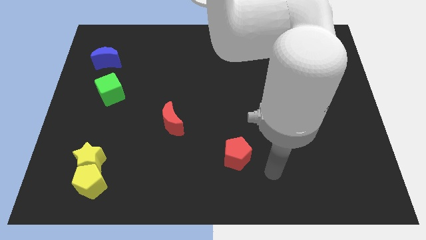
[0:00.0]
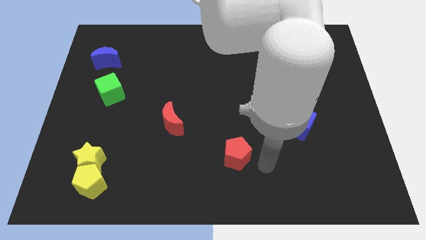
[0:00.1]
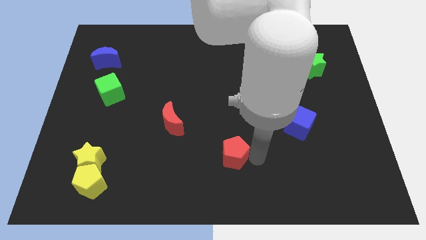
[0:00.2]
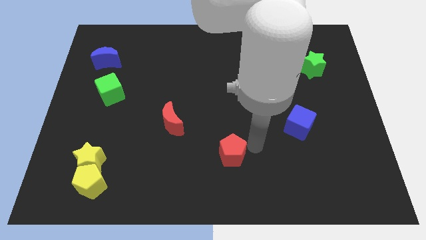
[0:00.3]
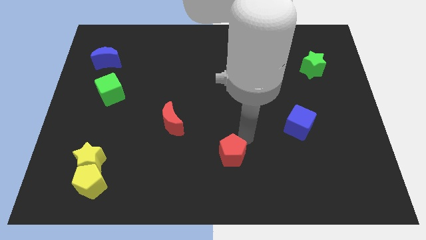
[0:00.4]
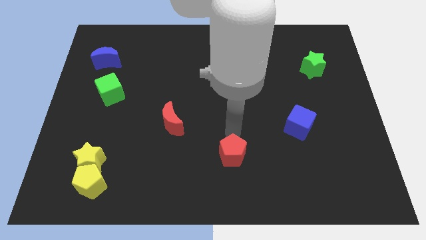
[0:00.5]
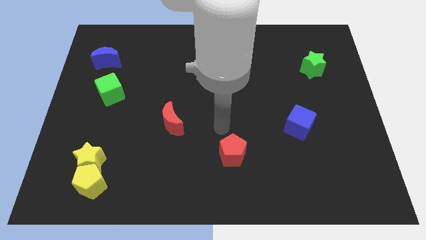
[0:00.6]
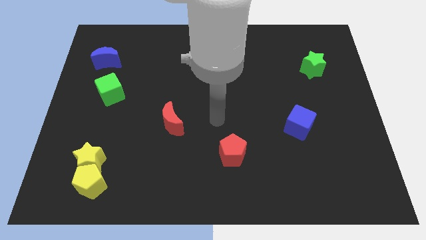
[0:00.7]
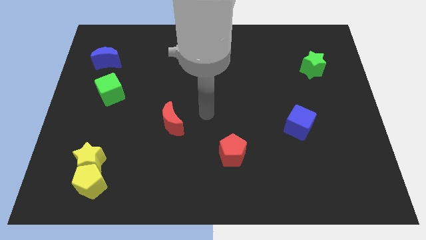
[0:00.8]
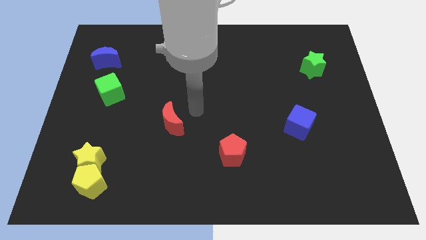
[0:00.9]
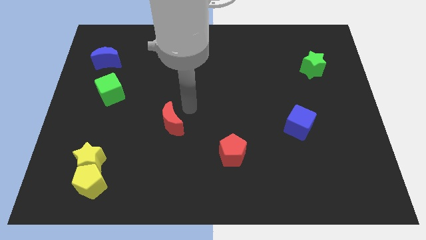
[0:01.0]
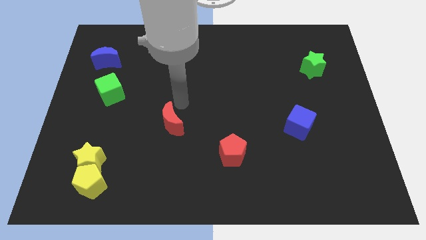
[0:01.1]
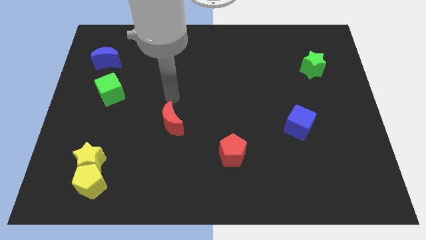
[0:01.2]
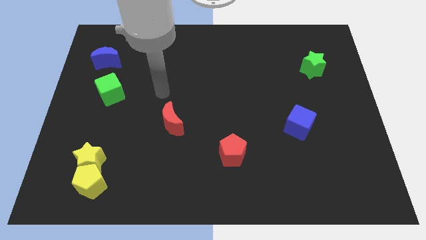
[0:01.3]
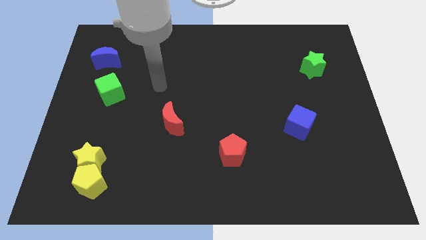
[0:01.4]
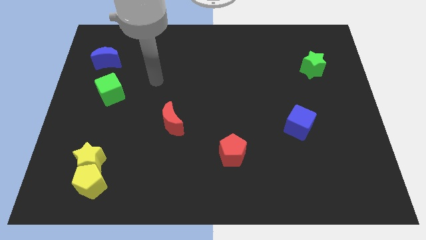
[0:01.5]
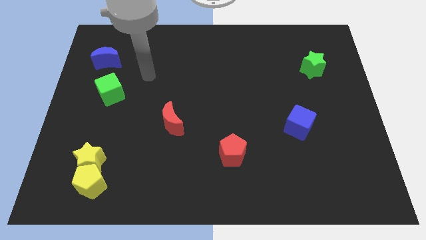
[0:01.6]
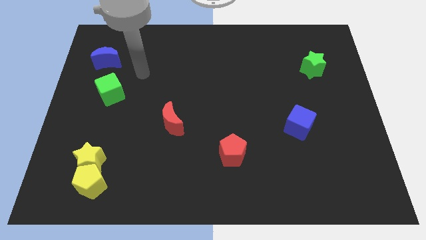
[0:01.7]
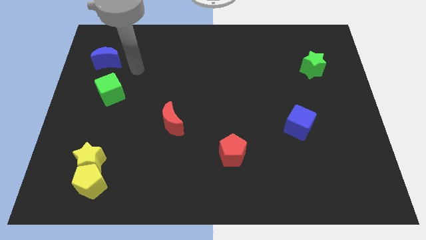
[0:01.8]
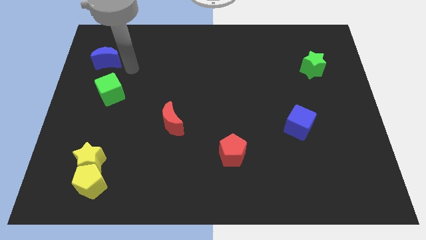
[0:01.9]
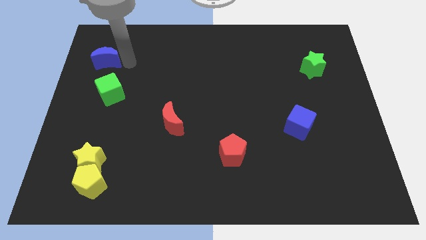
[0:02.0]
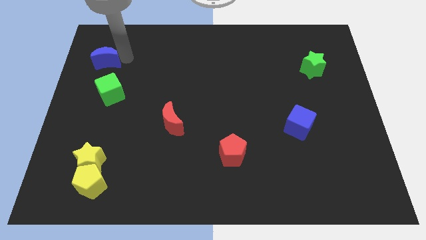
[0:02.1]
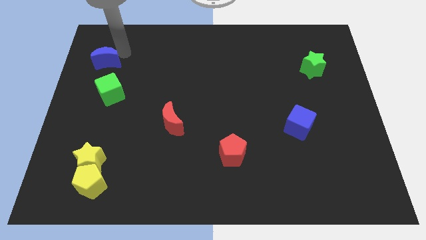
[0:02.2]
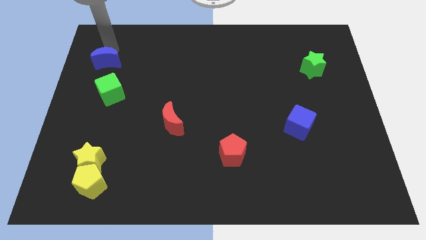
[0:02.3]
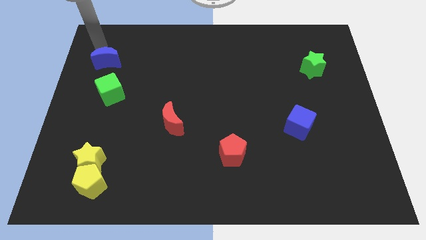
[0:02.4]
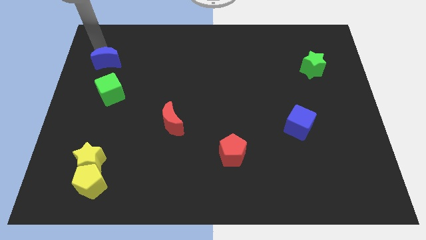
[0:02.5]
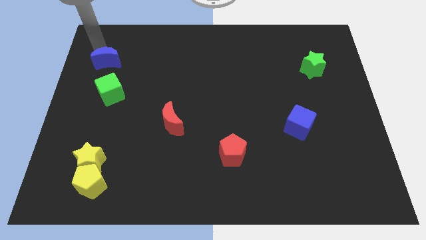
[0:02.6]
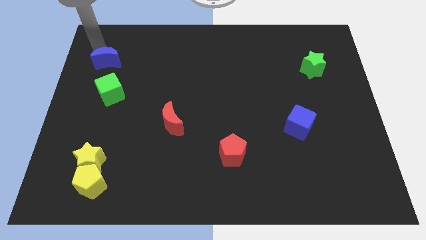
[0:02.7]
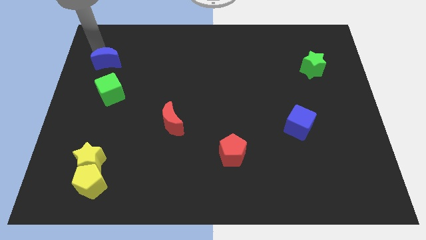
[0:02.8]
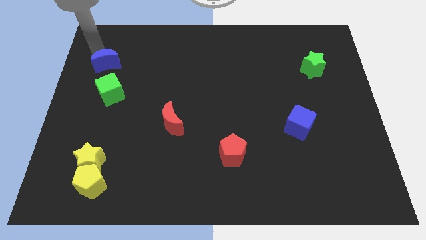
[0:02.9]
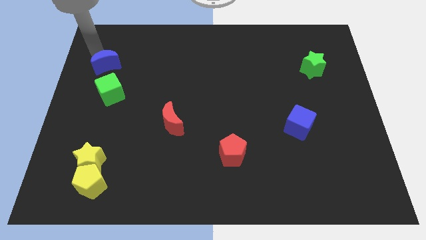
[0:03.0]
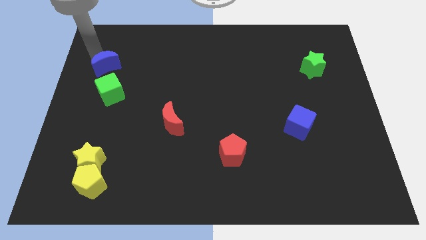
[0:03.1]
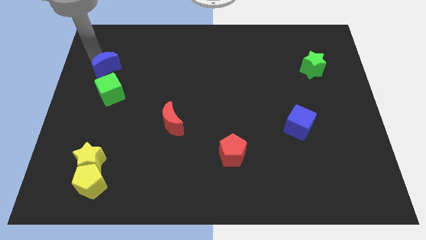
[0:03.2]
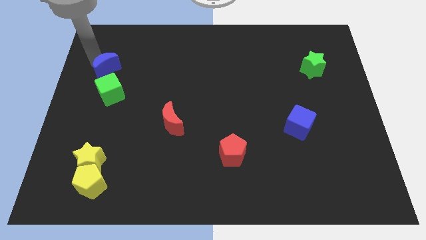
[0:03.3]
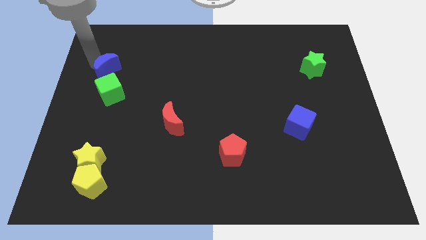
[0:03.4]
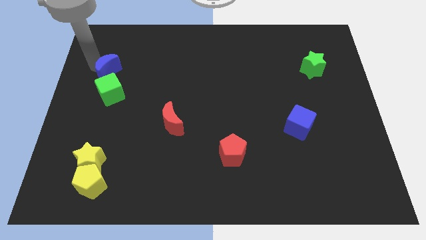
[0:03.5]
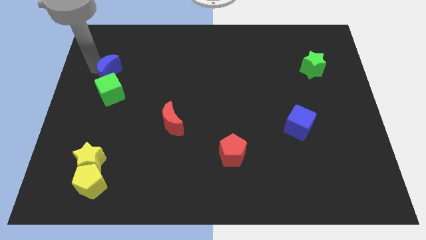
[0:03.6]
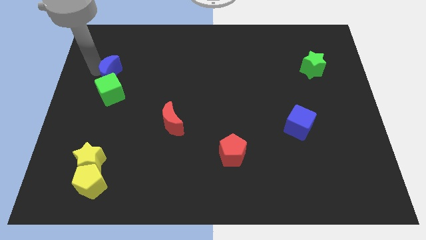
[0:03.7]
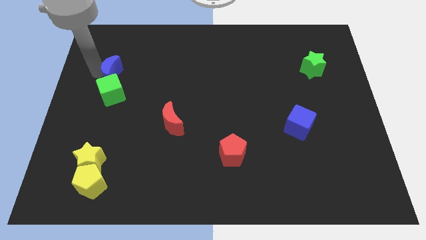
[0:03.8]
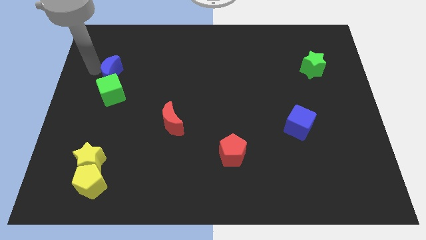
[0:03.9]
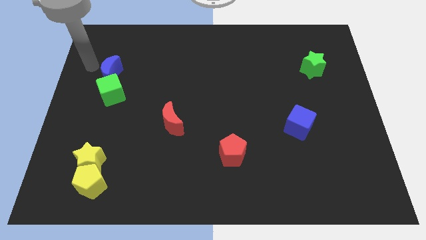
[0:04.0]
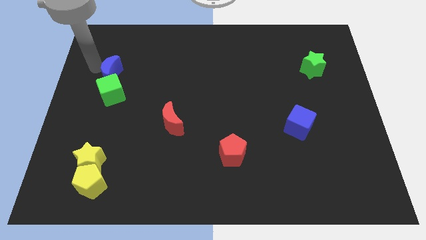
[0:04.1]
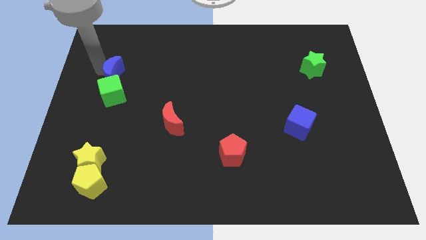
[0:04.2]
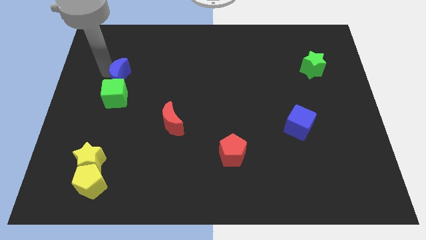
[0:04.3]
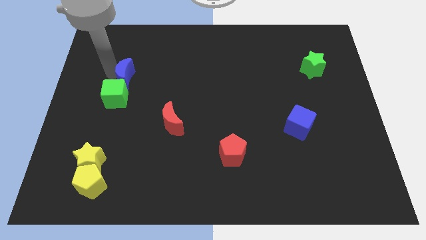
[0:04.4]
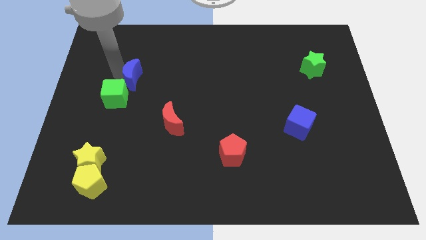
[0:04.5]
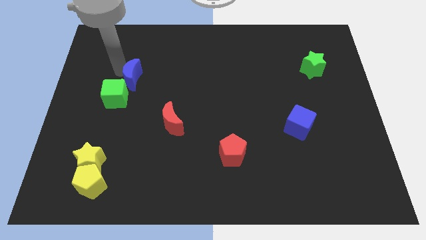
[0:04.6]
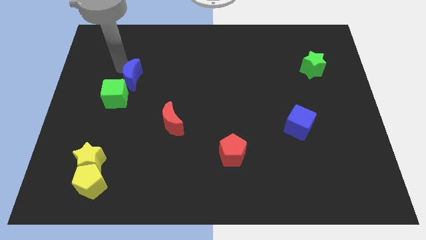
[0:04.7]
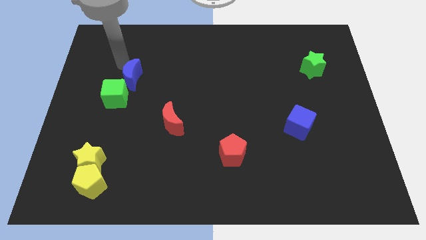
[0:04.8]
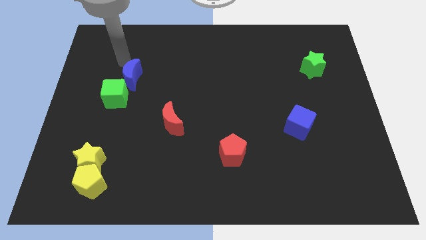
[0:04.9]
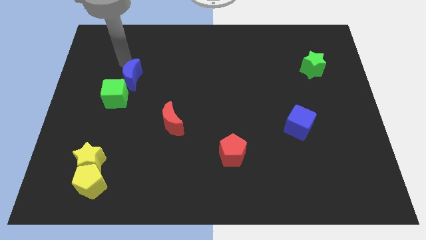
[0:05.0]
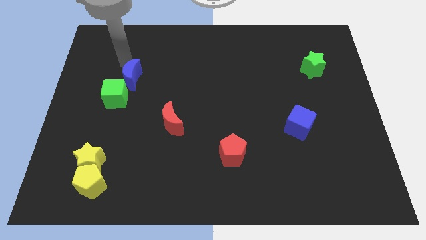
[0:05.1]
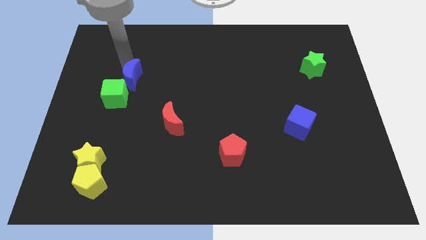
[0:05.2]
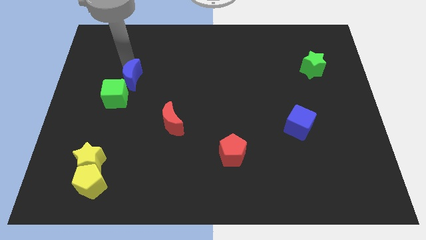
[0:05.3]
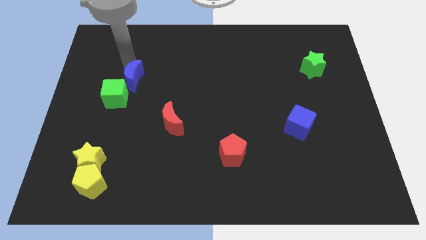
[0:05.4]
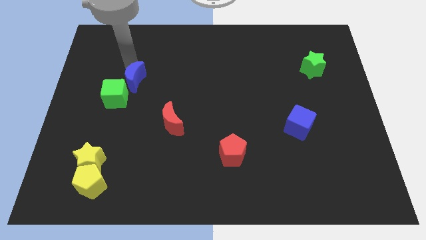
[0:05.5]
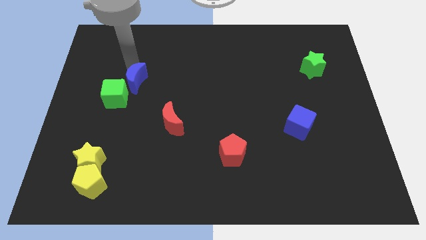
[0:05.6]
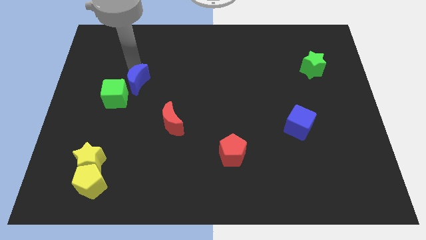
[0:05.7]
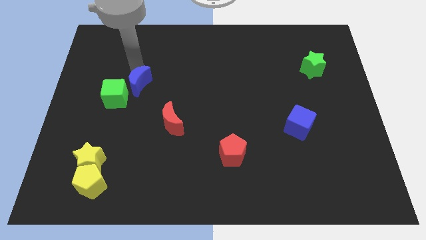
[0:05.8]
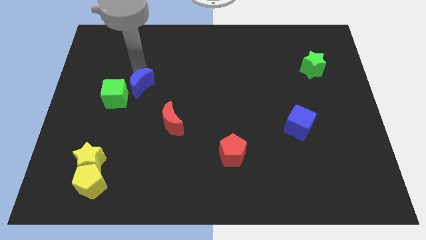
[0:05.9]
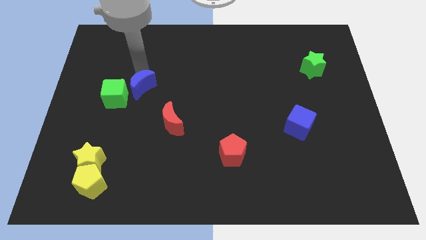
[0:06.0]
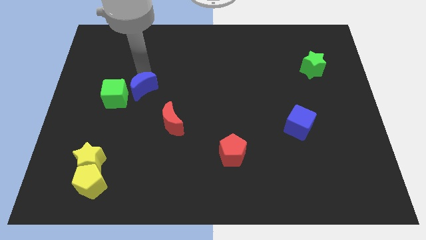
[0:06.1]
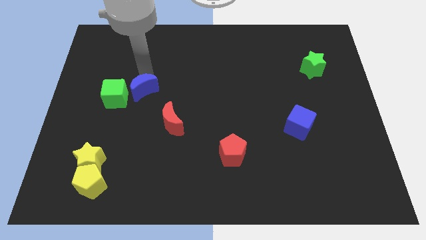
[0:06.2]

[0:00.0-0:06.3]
move the blue moon to the top left side of the red moon

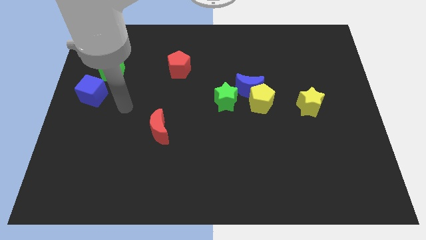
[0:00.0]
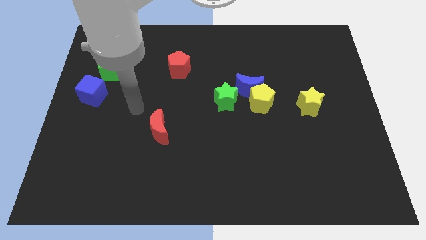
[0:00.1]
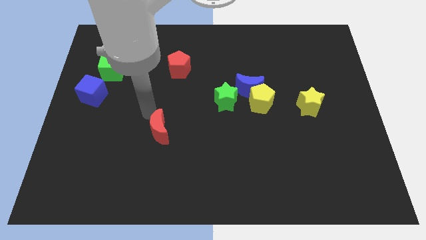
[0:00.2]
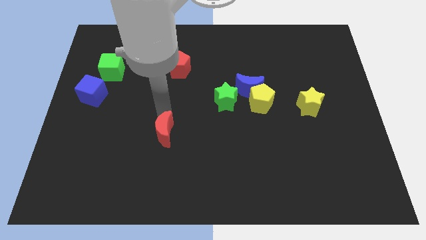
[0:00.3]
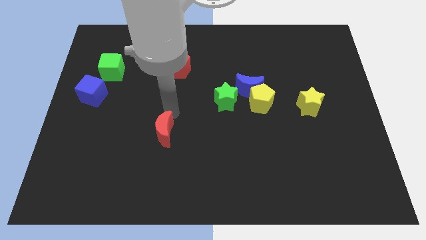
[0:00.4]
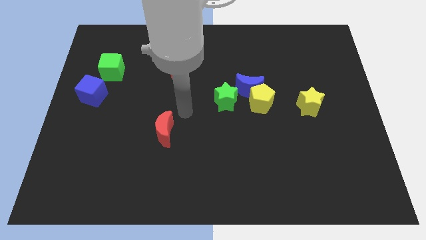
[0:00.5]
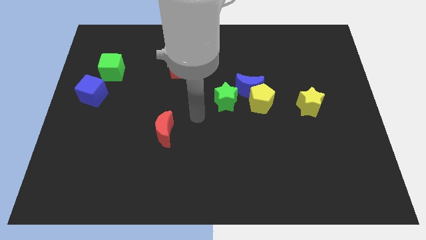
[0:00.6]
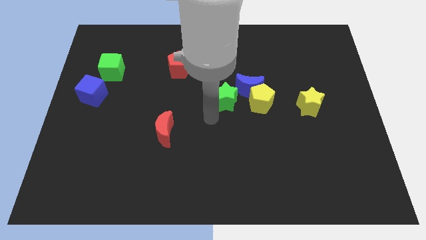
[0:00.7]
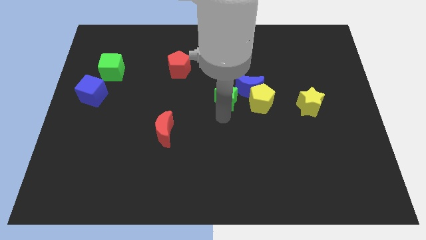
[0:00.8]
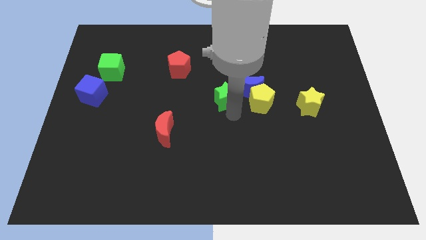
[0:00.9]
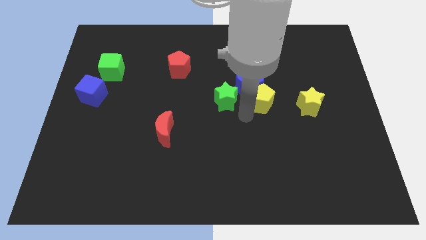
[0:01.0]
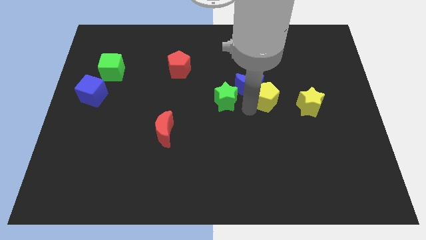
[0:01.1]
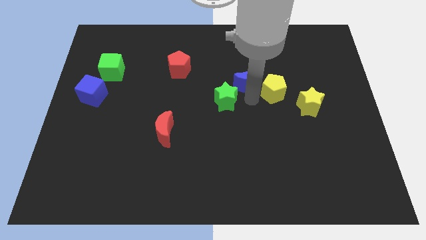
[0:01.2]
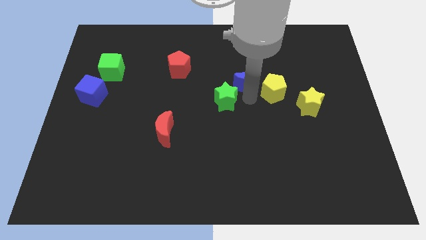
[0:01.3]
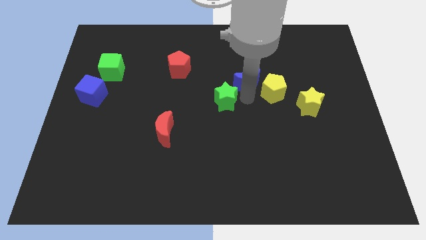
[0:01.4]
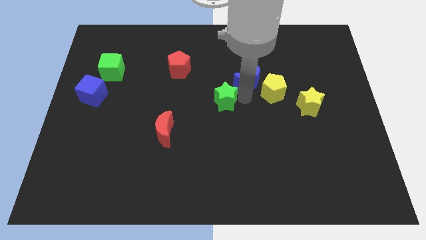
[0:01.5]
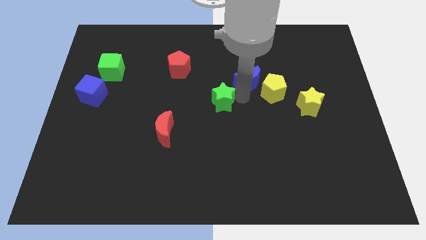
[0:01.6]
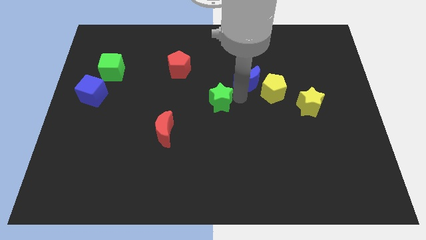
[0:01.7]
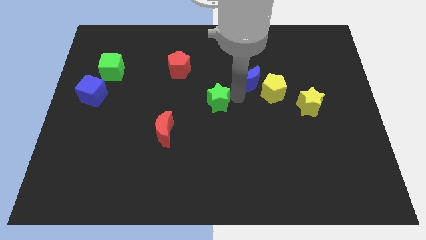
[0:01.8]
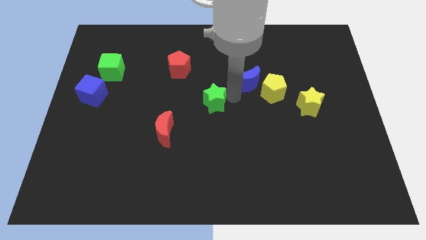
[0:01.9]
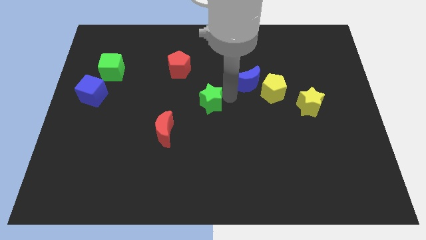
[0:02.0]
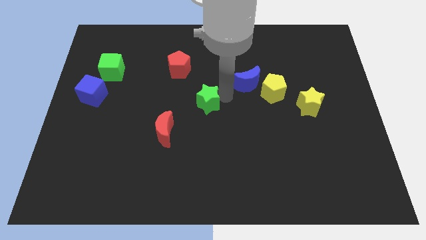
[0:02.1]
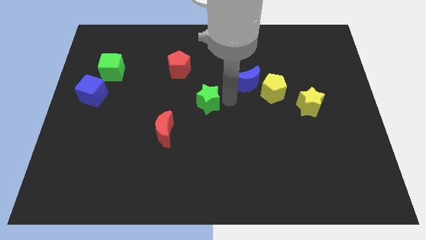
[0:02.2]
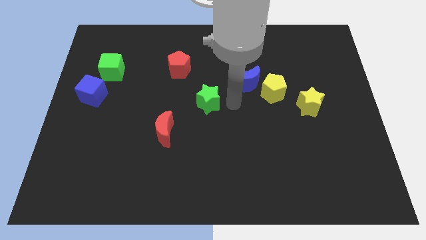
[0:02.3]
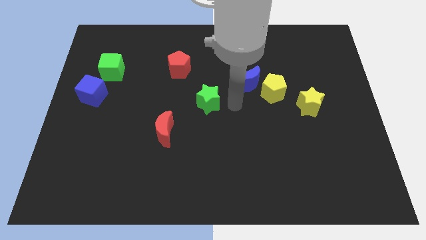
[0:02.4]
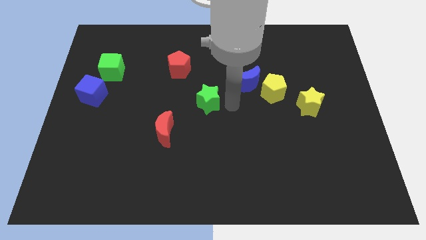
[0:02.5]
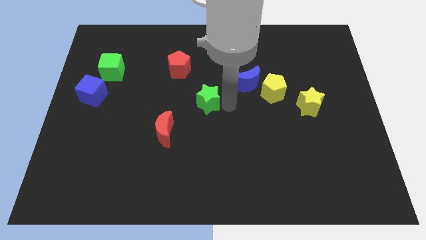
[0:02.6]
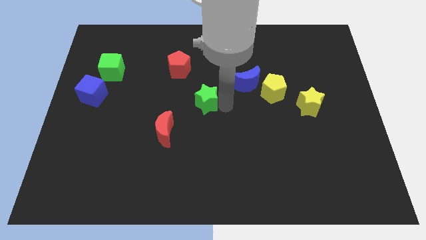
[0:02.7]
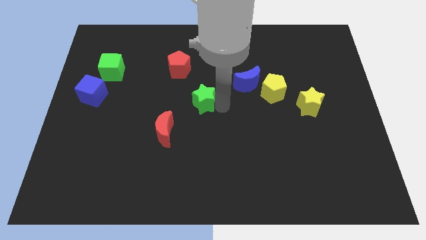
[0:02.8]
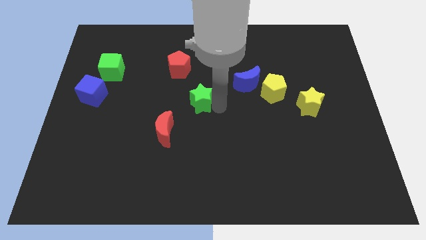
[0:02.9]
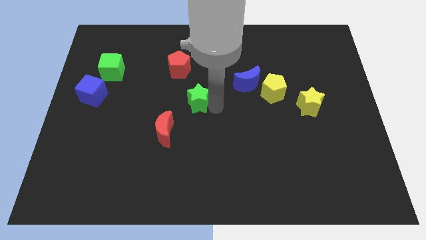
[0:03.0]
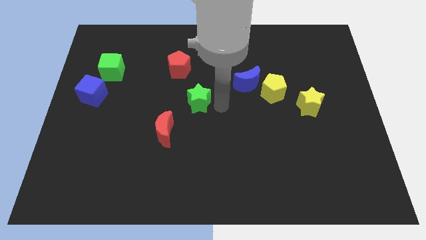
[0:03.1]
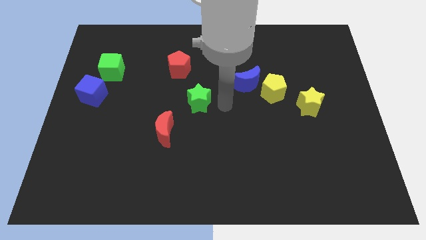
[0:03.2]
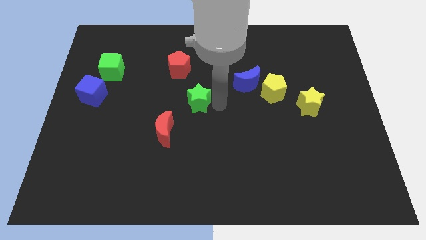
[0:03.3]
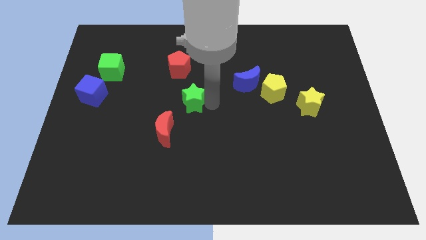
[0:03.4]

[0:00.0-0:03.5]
put the green star below the red pentagon
